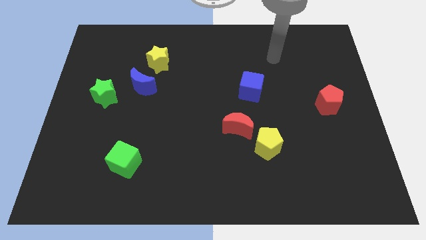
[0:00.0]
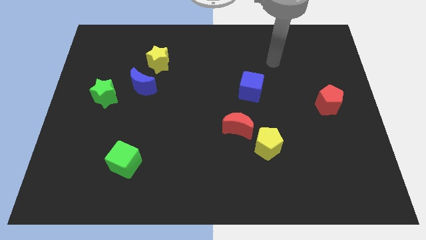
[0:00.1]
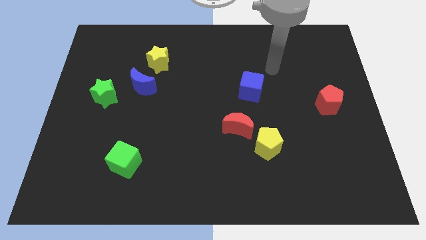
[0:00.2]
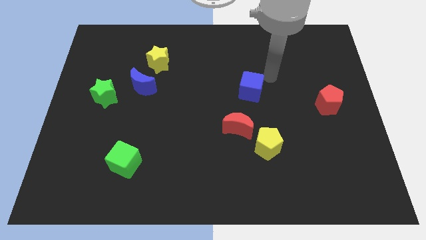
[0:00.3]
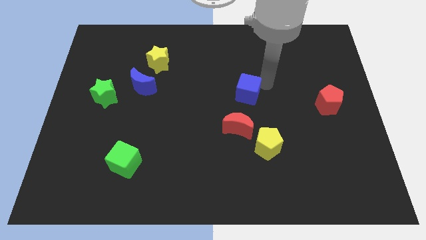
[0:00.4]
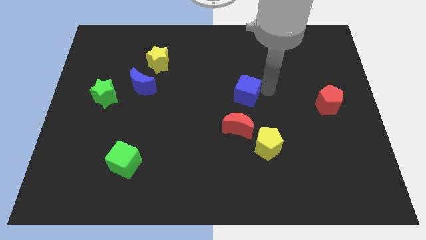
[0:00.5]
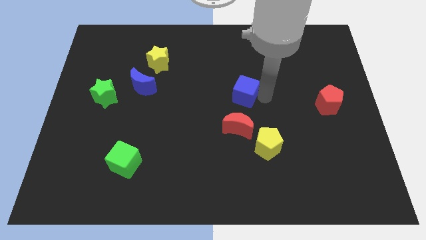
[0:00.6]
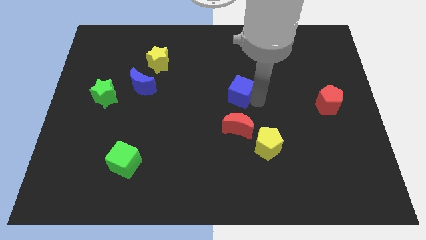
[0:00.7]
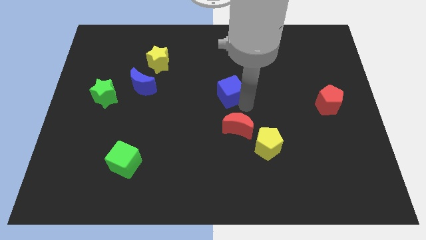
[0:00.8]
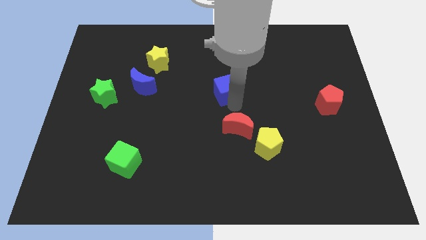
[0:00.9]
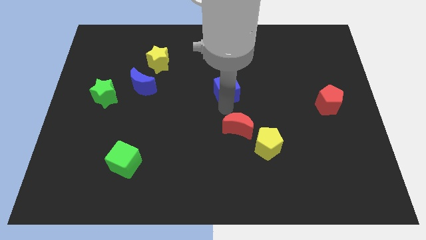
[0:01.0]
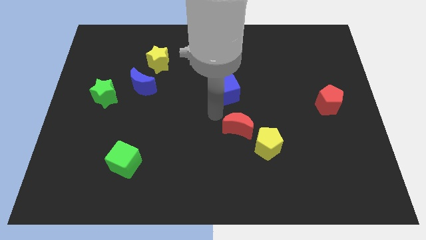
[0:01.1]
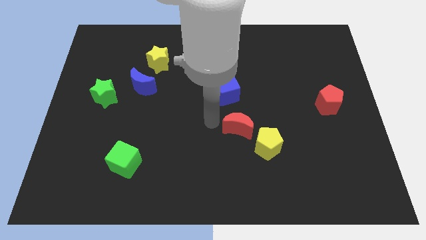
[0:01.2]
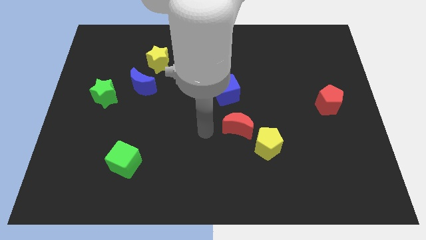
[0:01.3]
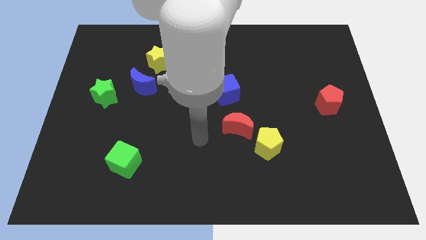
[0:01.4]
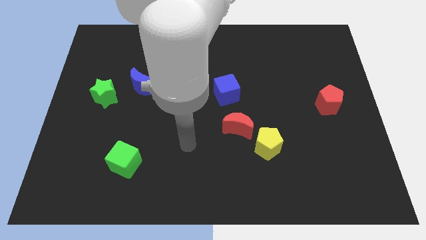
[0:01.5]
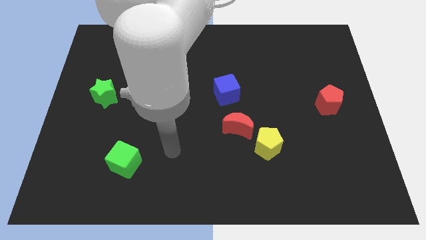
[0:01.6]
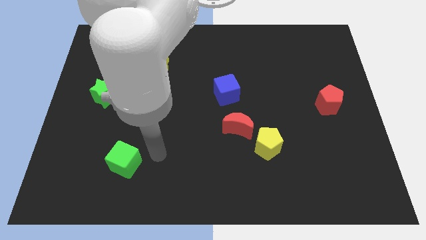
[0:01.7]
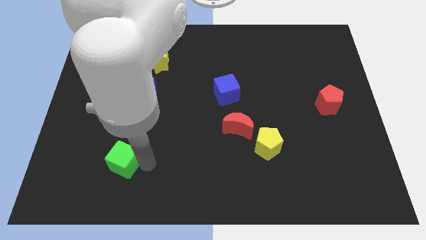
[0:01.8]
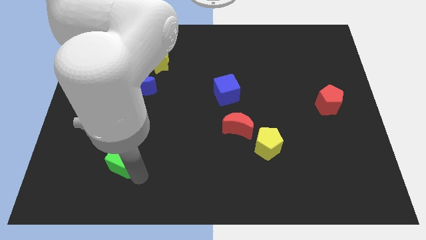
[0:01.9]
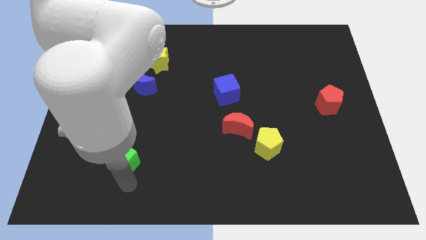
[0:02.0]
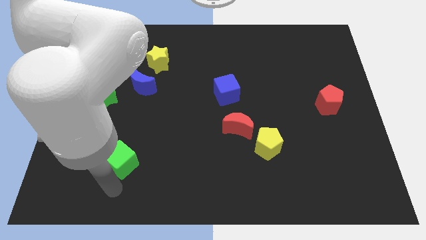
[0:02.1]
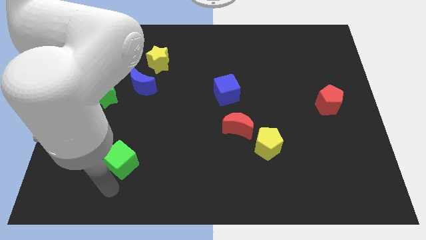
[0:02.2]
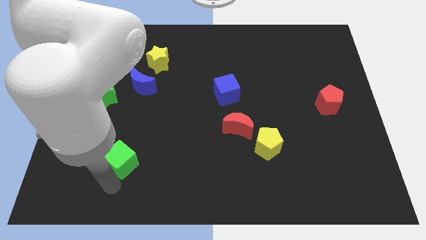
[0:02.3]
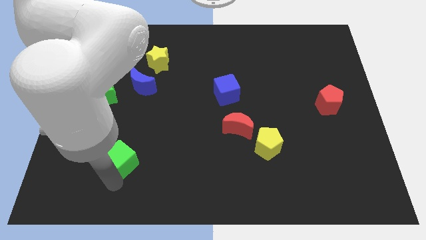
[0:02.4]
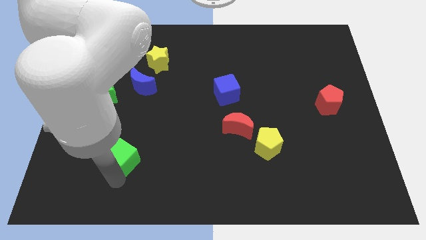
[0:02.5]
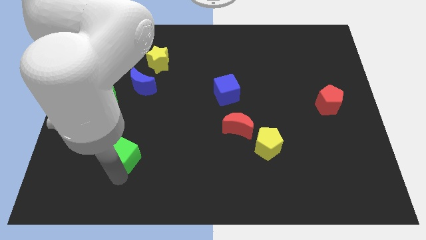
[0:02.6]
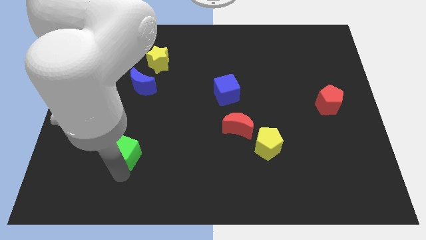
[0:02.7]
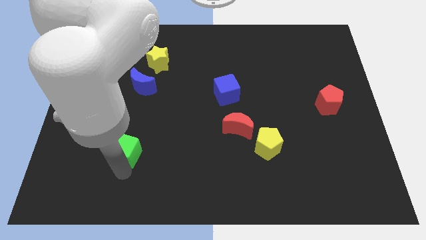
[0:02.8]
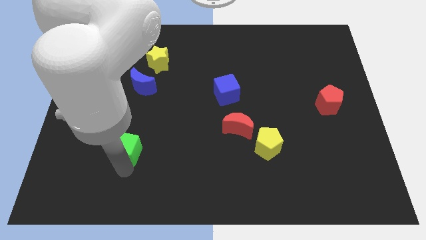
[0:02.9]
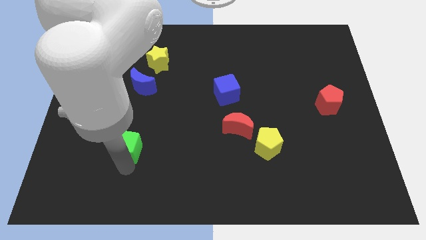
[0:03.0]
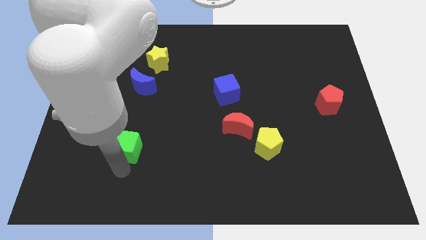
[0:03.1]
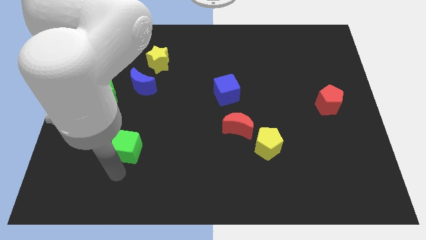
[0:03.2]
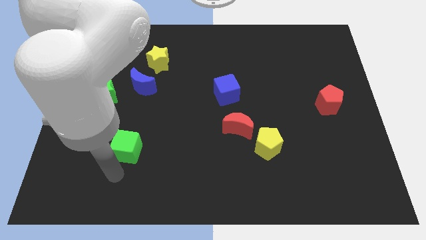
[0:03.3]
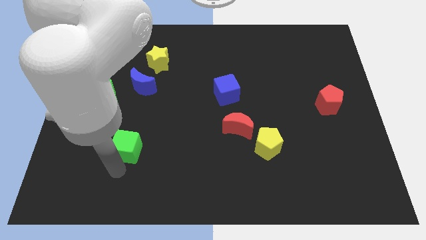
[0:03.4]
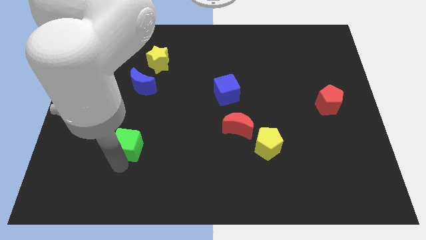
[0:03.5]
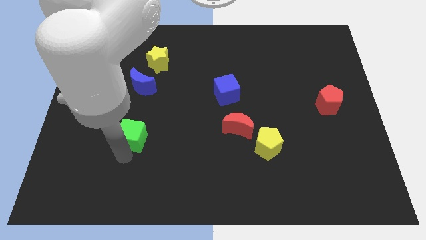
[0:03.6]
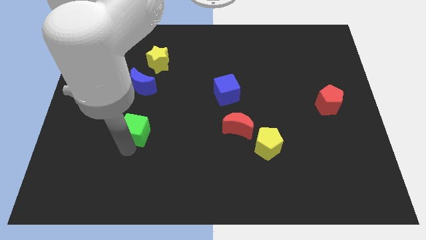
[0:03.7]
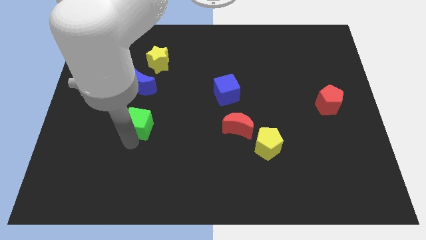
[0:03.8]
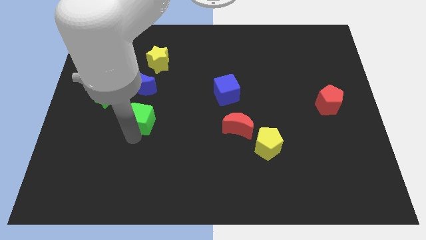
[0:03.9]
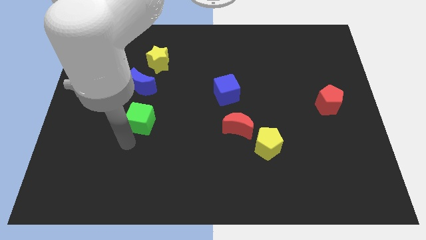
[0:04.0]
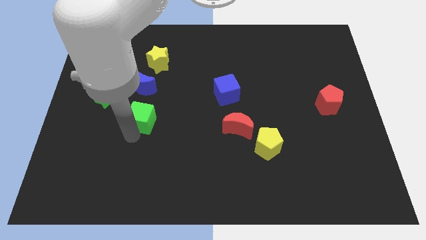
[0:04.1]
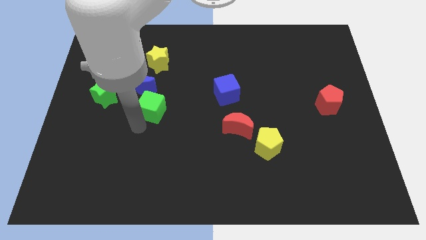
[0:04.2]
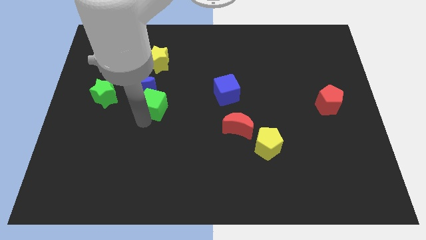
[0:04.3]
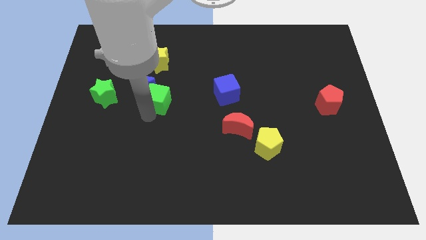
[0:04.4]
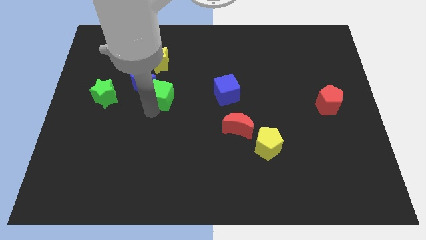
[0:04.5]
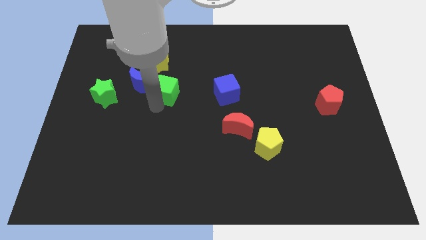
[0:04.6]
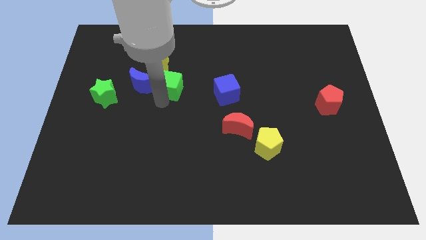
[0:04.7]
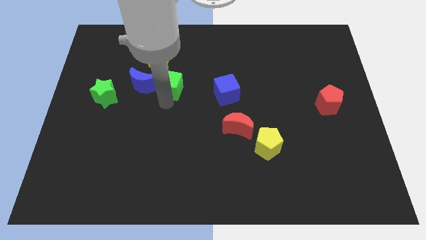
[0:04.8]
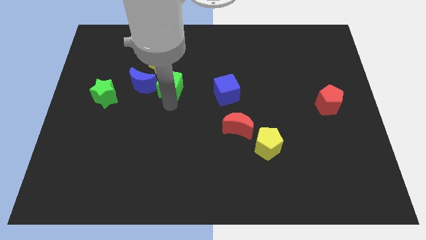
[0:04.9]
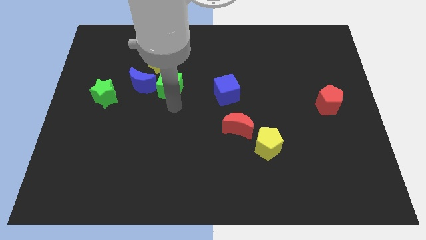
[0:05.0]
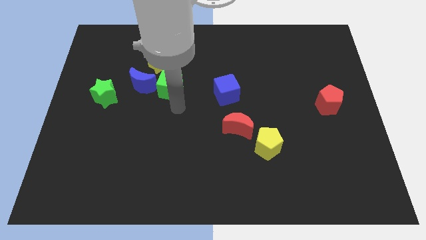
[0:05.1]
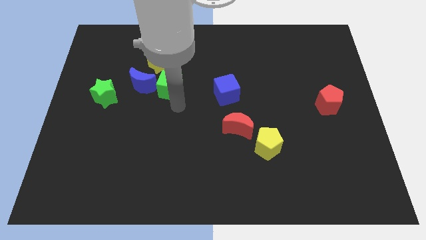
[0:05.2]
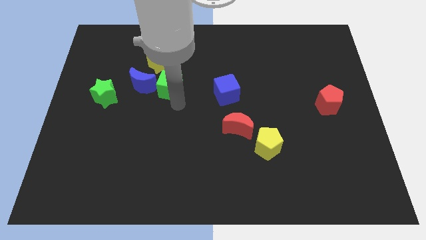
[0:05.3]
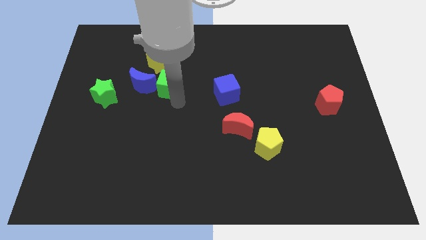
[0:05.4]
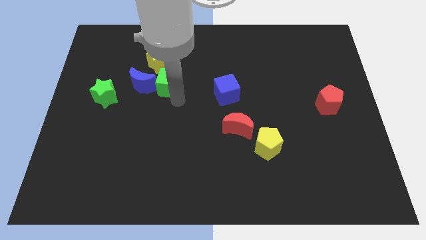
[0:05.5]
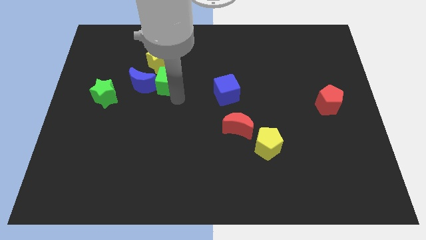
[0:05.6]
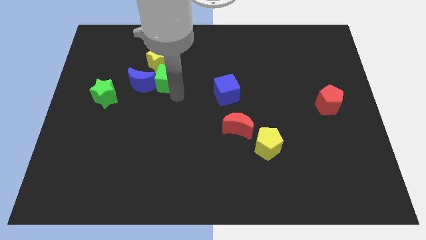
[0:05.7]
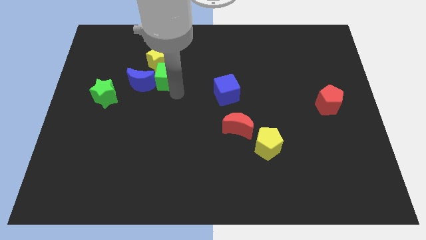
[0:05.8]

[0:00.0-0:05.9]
slide the green cube towards the yellow star

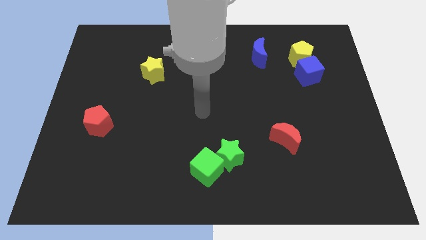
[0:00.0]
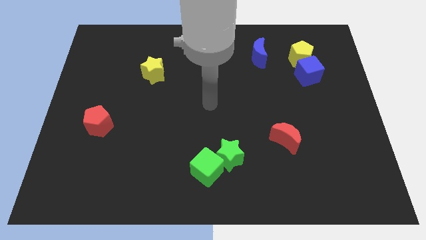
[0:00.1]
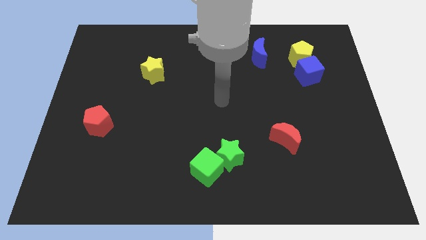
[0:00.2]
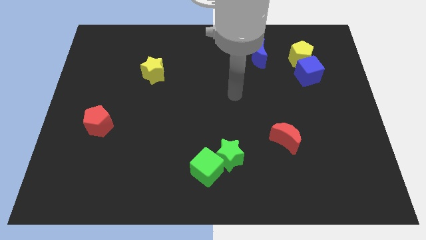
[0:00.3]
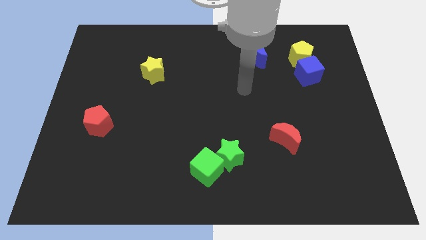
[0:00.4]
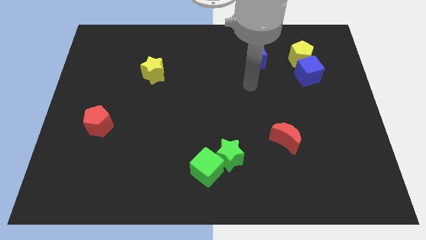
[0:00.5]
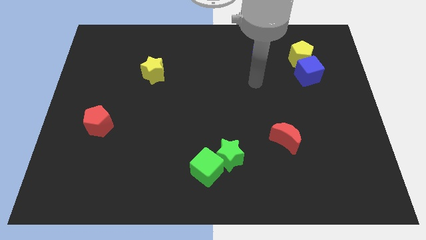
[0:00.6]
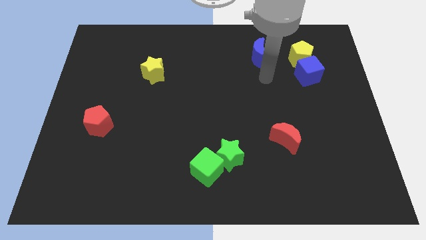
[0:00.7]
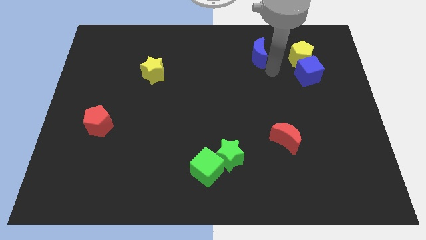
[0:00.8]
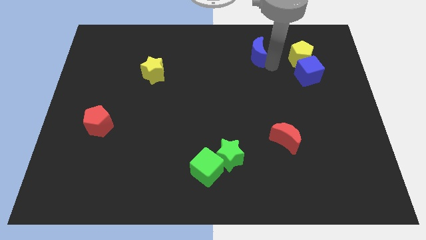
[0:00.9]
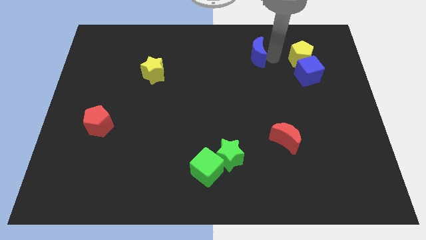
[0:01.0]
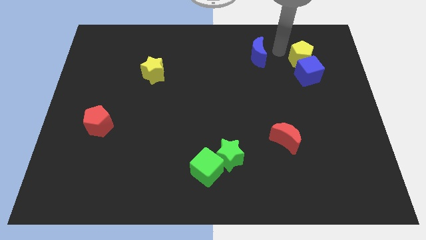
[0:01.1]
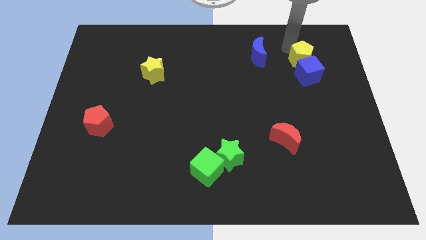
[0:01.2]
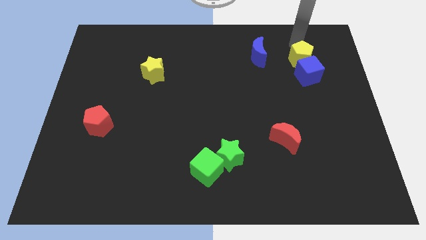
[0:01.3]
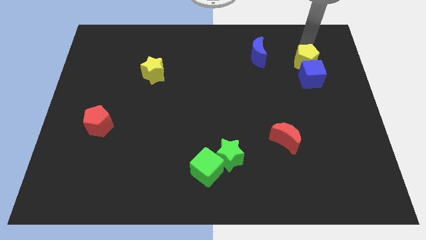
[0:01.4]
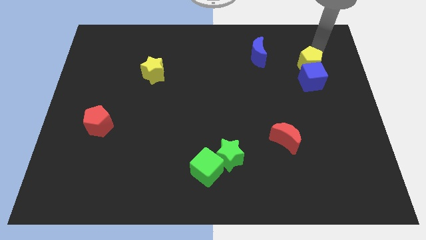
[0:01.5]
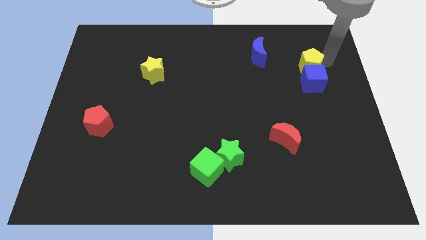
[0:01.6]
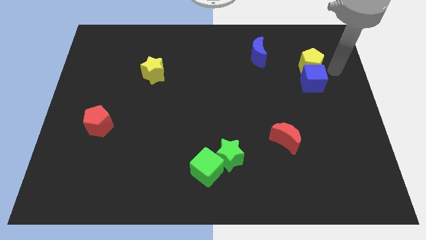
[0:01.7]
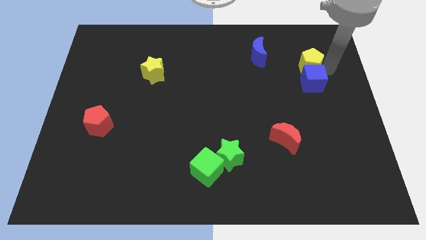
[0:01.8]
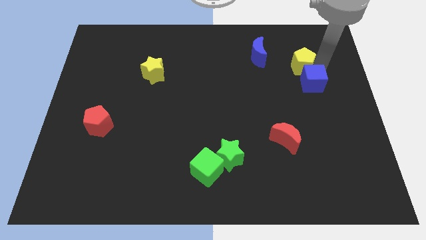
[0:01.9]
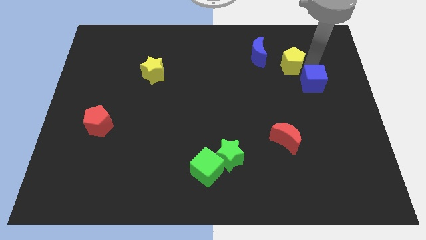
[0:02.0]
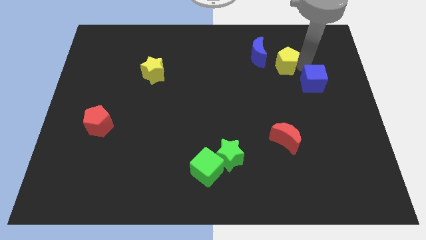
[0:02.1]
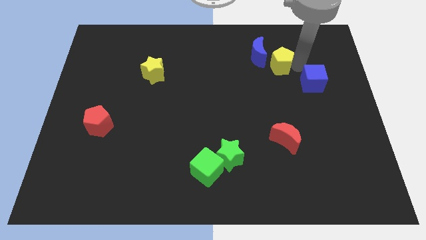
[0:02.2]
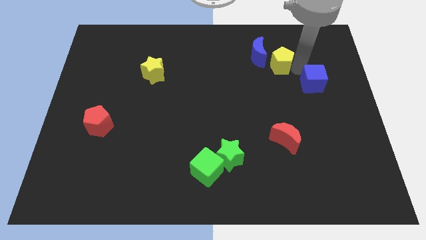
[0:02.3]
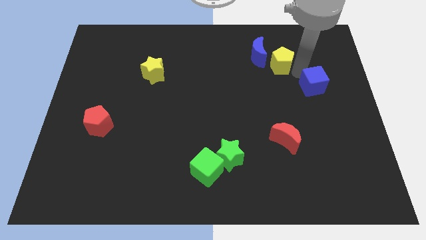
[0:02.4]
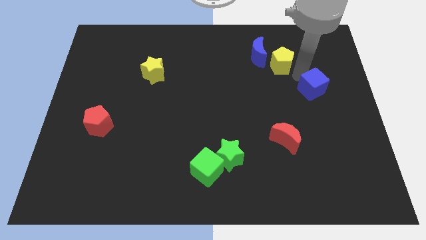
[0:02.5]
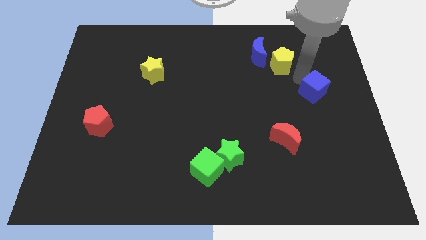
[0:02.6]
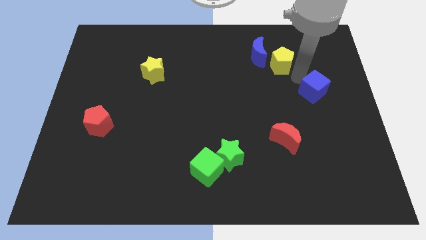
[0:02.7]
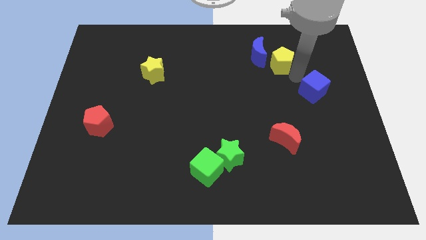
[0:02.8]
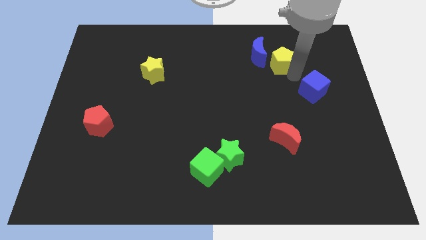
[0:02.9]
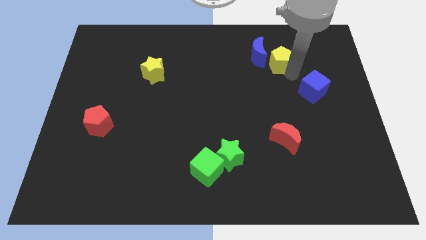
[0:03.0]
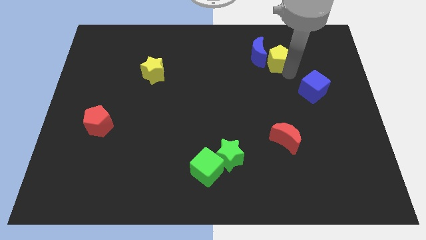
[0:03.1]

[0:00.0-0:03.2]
slide the yellow pentagon towards the blue moon
